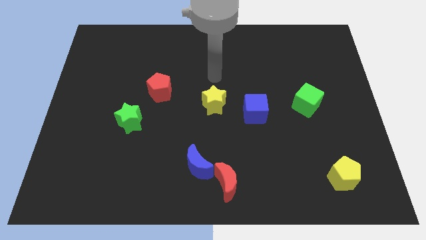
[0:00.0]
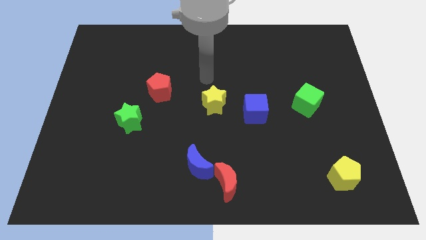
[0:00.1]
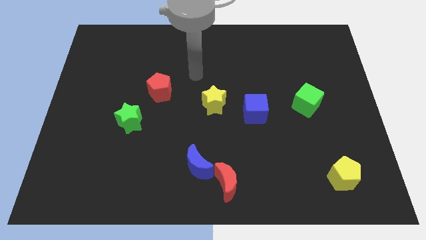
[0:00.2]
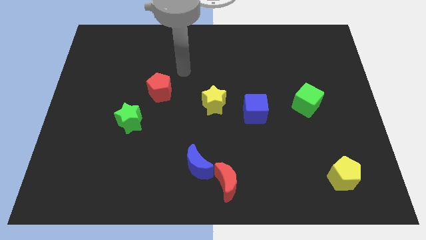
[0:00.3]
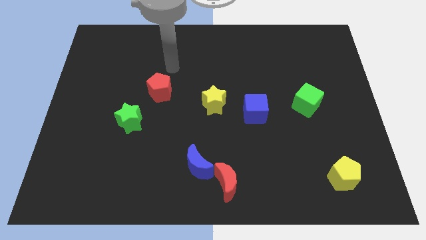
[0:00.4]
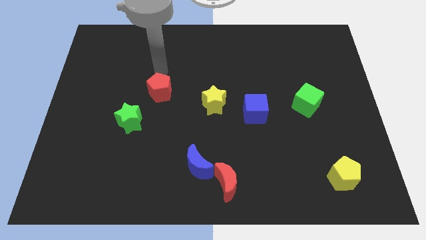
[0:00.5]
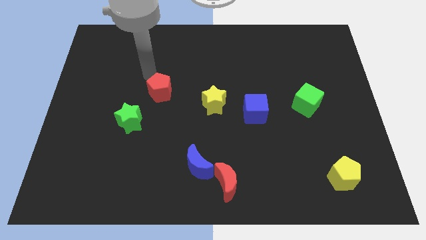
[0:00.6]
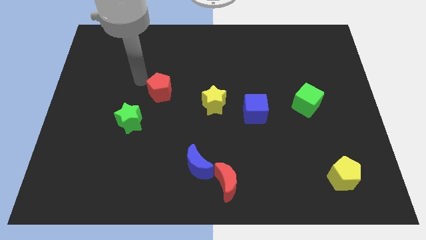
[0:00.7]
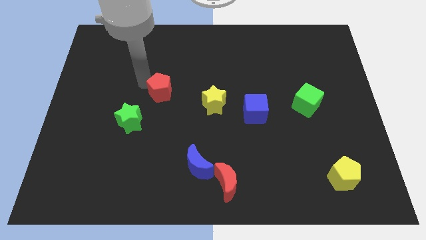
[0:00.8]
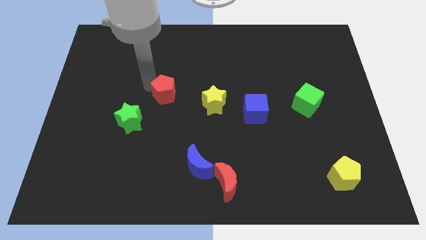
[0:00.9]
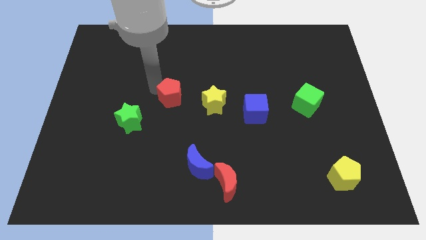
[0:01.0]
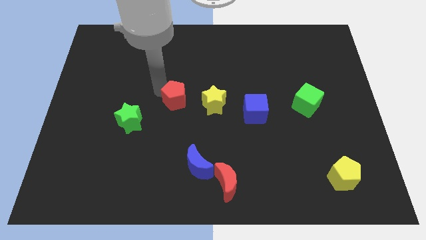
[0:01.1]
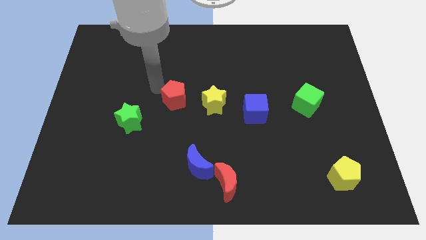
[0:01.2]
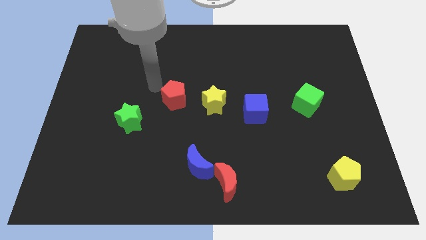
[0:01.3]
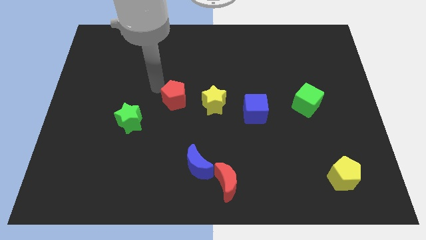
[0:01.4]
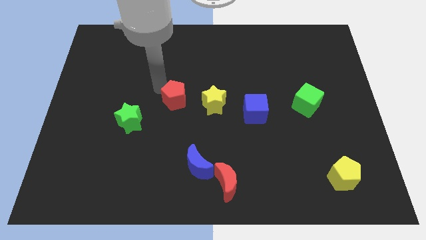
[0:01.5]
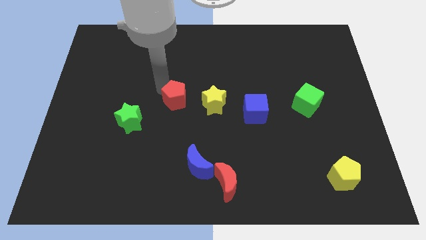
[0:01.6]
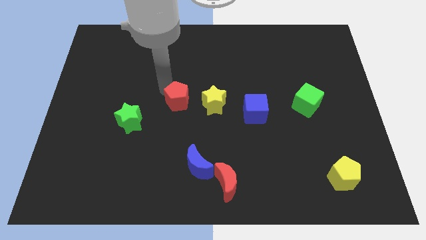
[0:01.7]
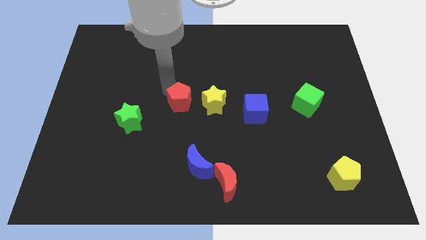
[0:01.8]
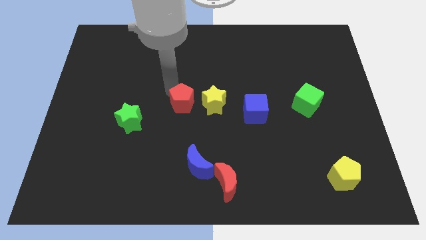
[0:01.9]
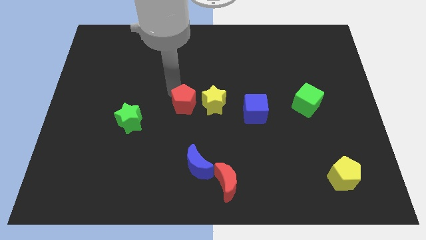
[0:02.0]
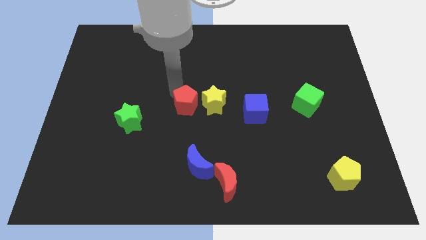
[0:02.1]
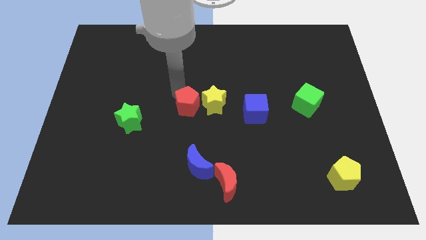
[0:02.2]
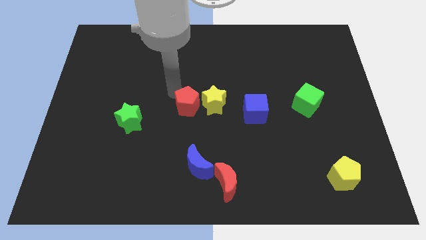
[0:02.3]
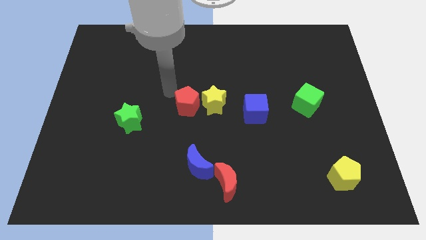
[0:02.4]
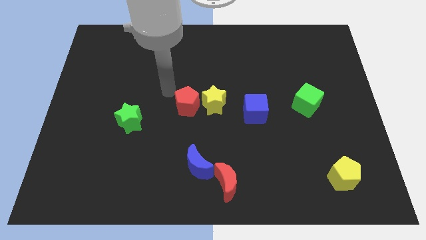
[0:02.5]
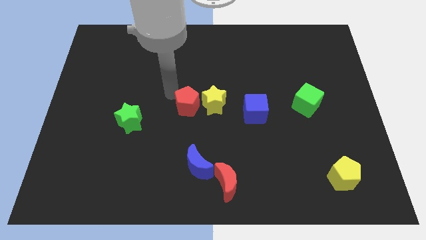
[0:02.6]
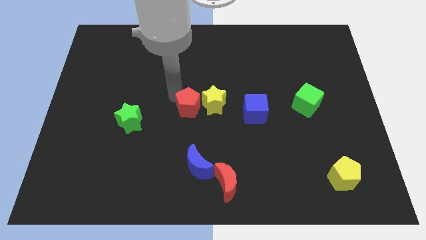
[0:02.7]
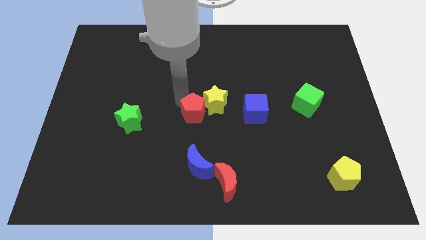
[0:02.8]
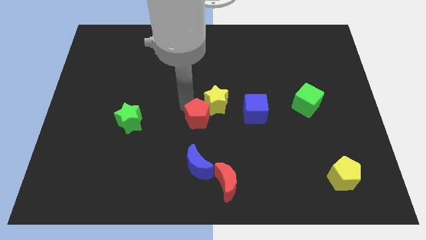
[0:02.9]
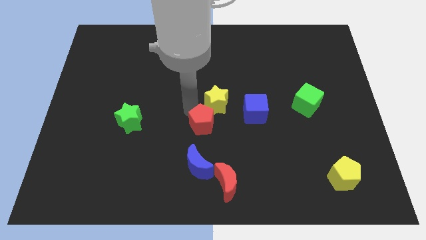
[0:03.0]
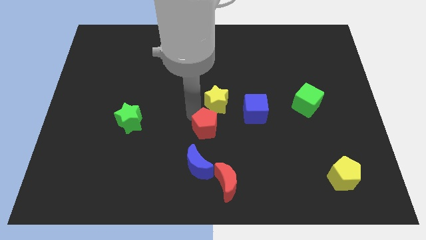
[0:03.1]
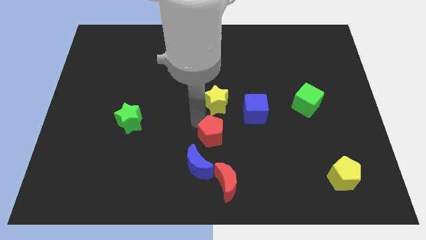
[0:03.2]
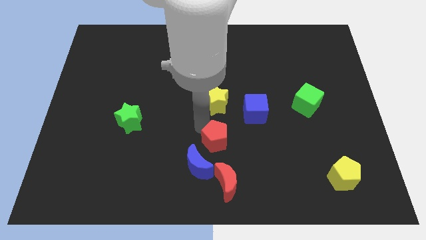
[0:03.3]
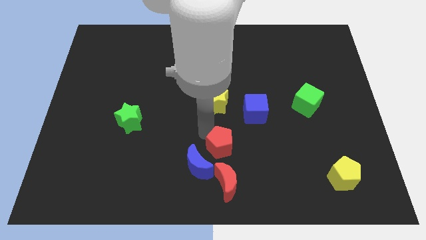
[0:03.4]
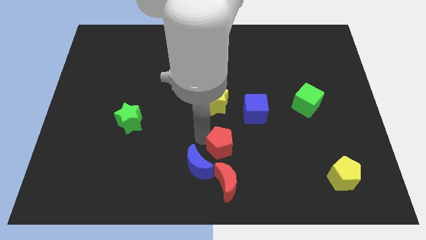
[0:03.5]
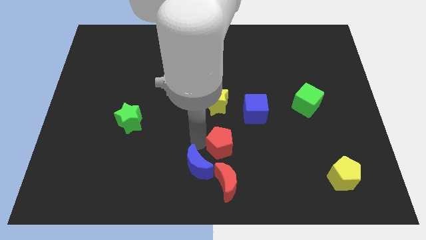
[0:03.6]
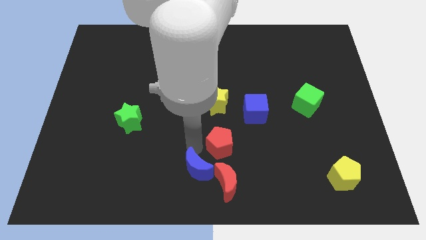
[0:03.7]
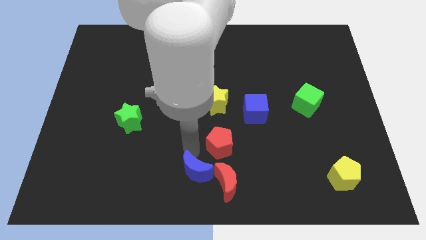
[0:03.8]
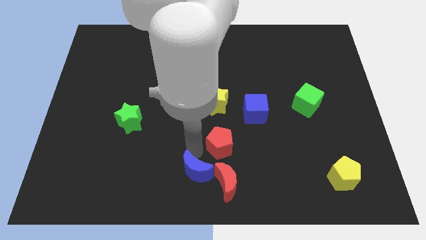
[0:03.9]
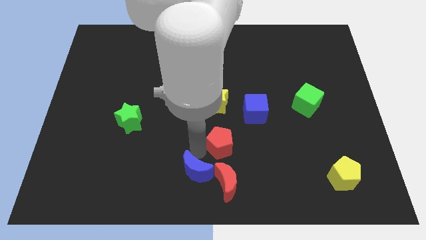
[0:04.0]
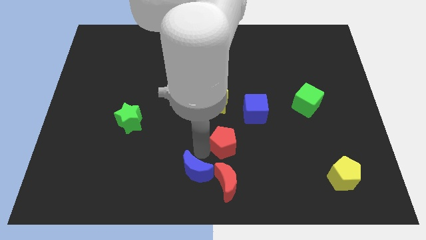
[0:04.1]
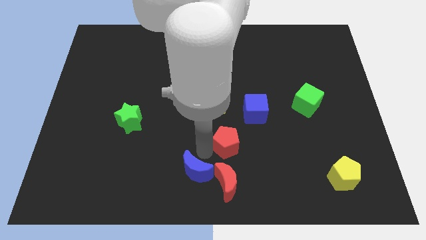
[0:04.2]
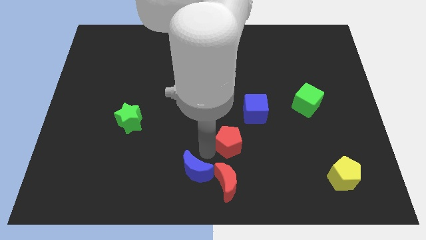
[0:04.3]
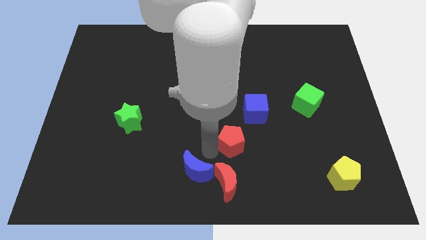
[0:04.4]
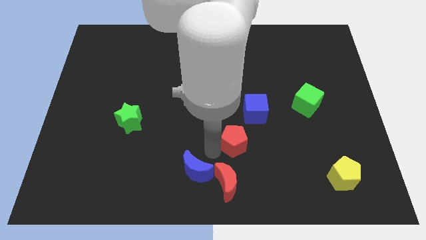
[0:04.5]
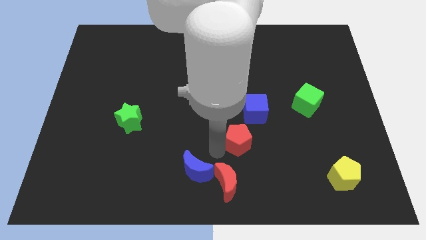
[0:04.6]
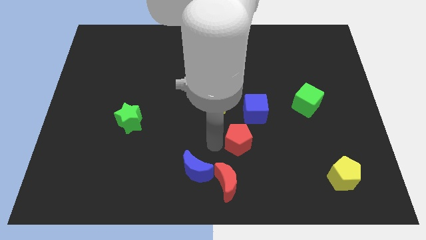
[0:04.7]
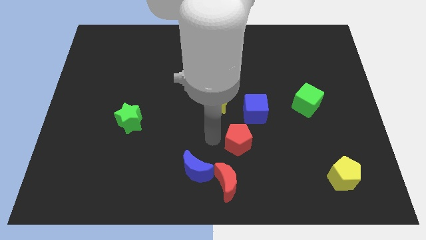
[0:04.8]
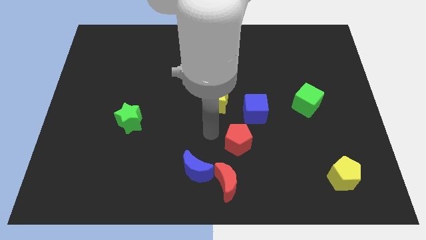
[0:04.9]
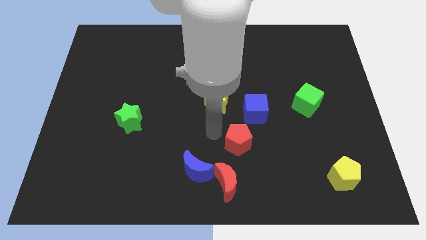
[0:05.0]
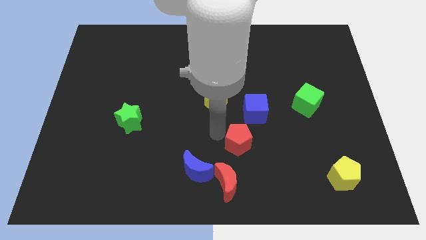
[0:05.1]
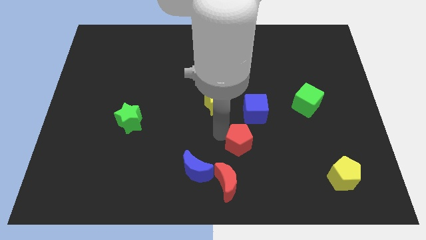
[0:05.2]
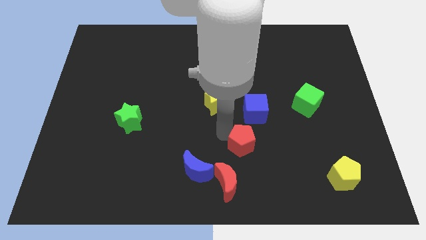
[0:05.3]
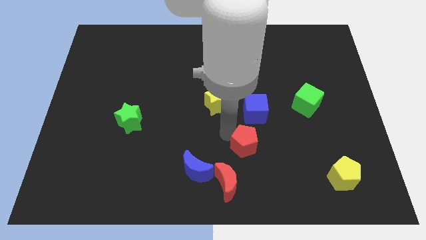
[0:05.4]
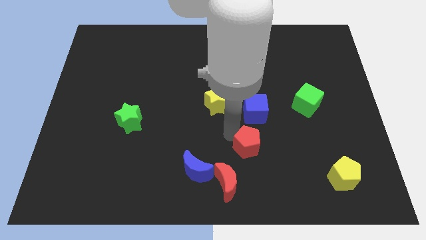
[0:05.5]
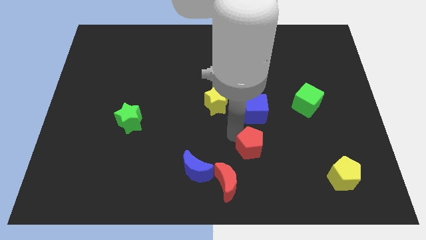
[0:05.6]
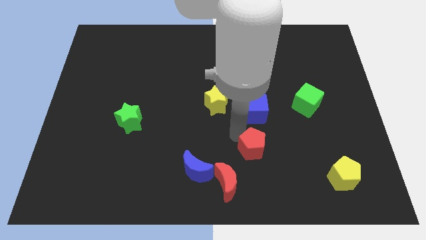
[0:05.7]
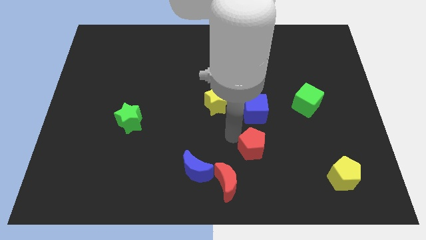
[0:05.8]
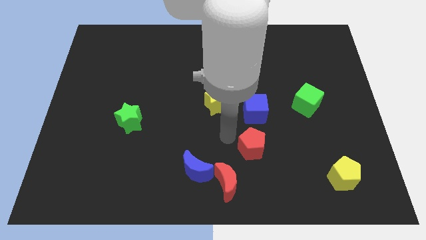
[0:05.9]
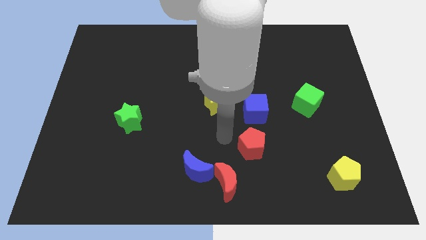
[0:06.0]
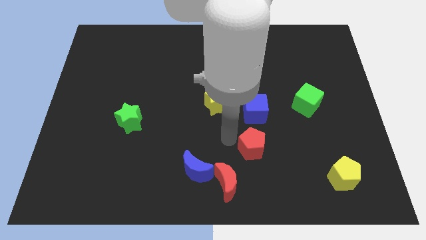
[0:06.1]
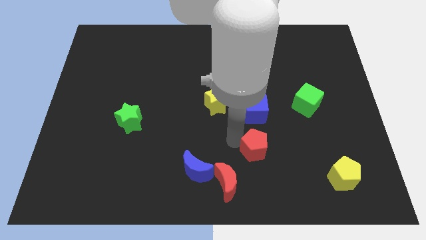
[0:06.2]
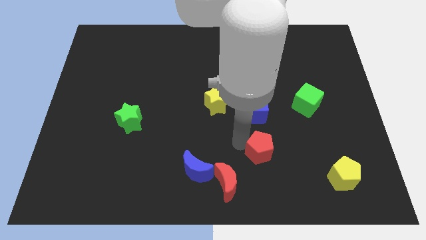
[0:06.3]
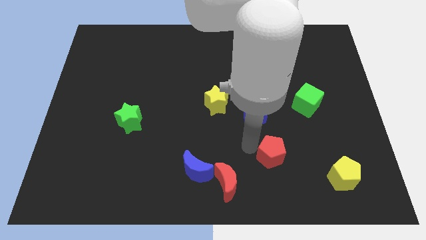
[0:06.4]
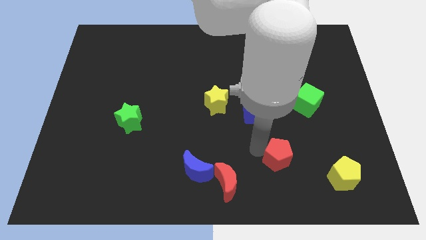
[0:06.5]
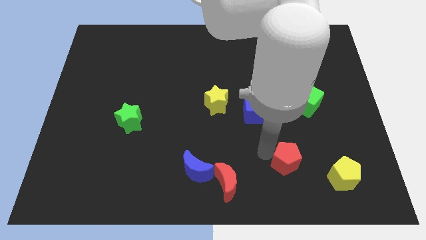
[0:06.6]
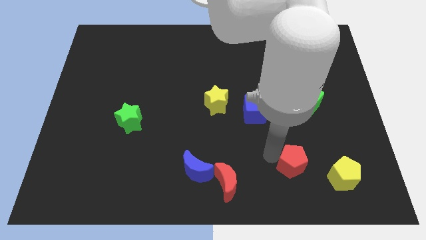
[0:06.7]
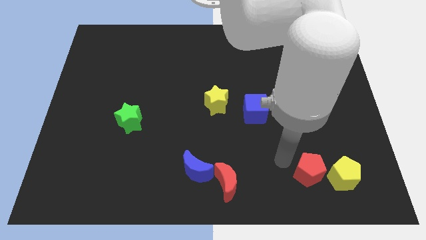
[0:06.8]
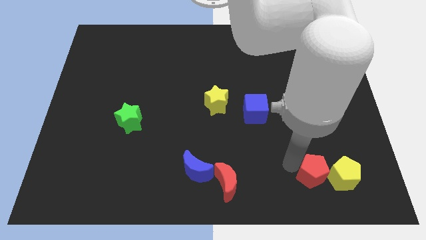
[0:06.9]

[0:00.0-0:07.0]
move the red pentagon close to the yellow pentagon
